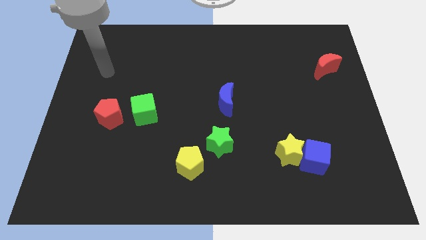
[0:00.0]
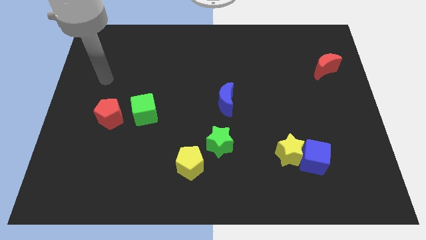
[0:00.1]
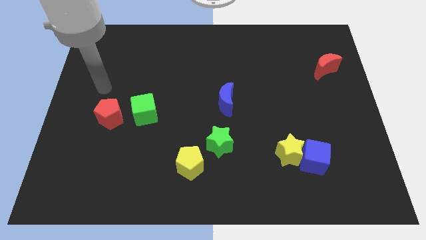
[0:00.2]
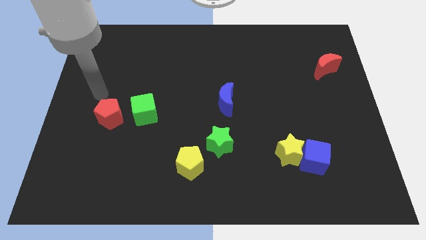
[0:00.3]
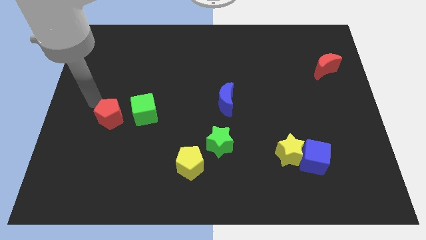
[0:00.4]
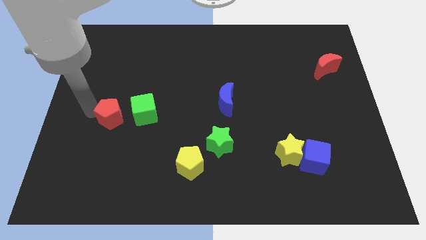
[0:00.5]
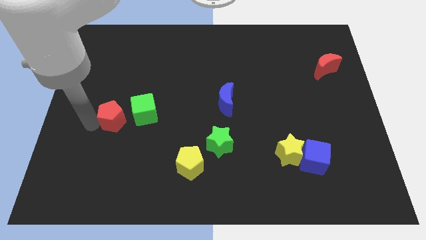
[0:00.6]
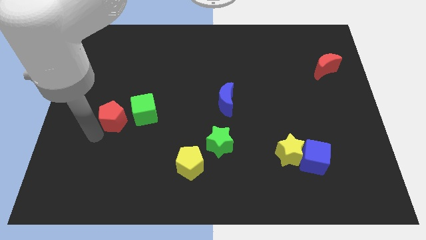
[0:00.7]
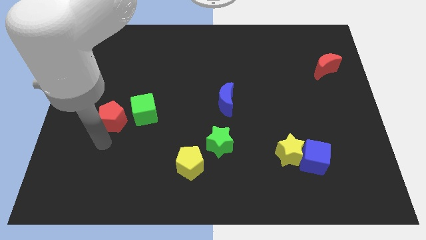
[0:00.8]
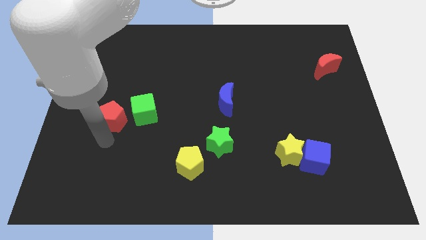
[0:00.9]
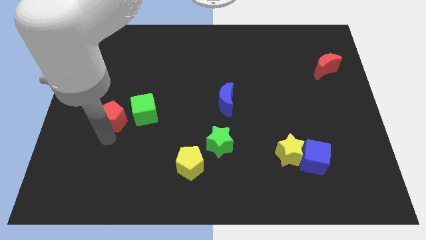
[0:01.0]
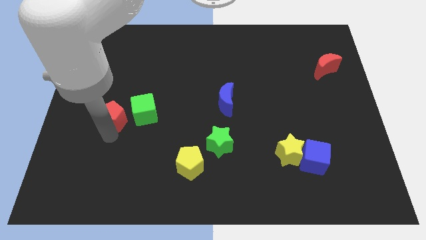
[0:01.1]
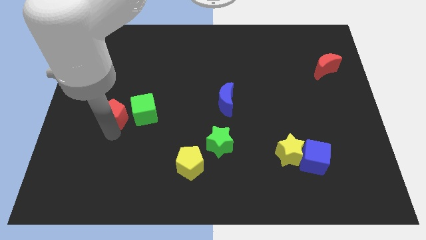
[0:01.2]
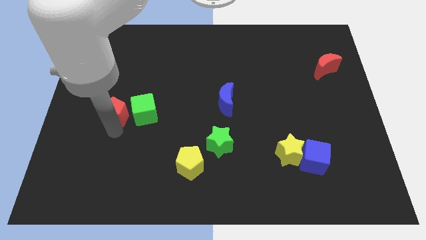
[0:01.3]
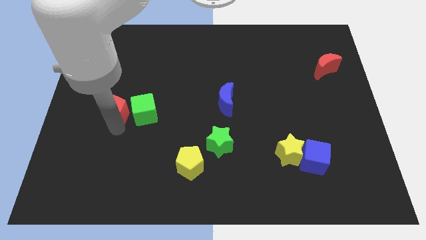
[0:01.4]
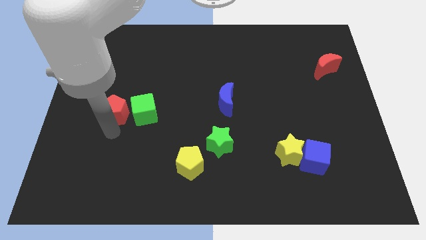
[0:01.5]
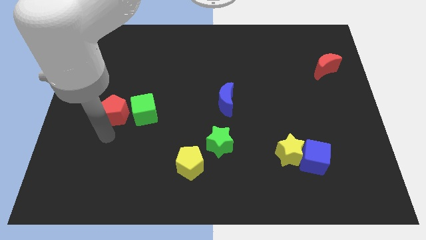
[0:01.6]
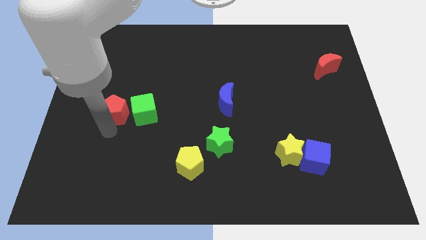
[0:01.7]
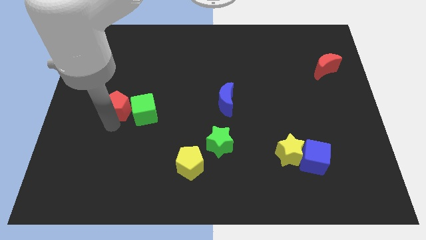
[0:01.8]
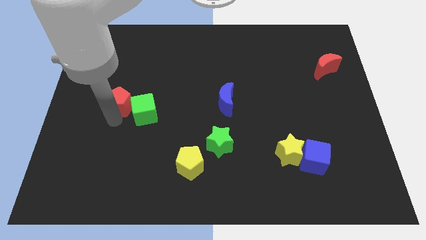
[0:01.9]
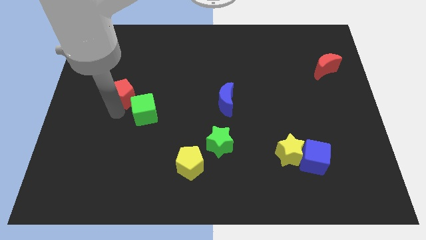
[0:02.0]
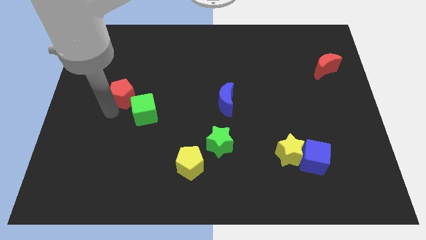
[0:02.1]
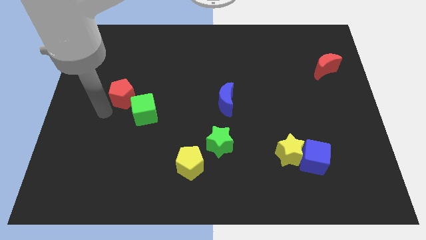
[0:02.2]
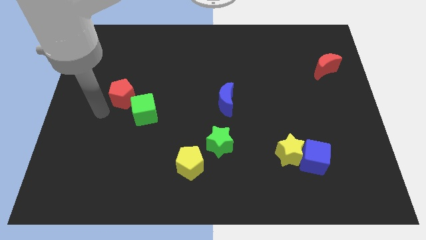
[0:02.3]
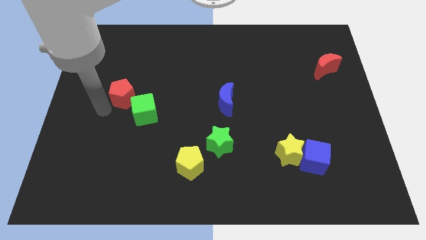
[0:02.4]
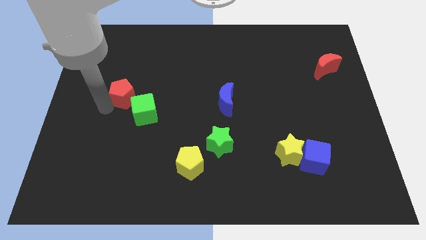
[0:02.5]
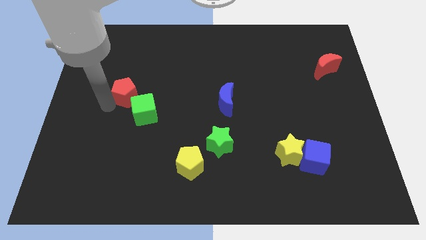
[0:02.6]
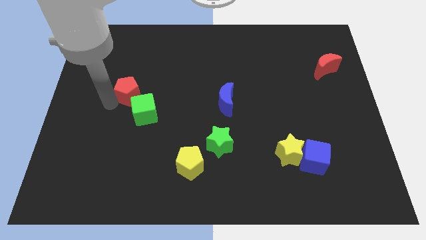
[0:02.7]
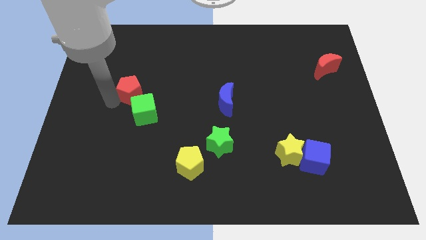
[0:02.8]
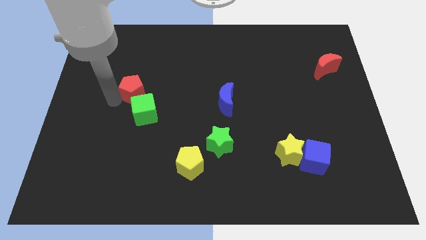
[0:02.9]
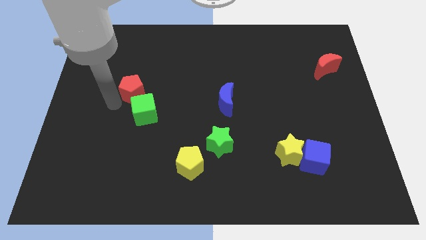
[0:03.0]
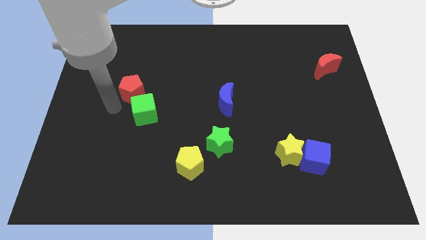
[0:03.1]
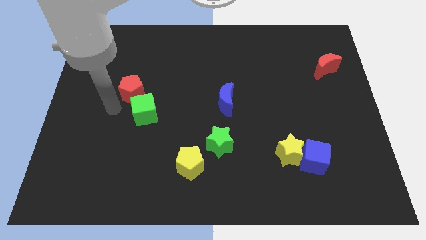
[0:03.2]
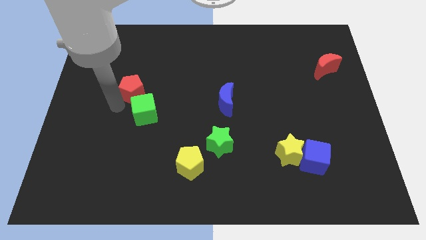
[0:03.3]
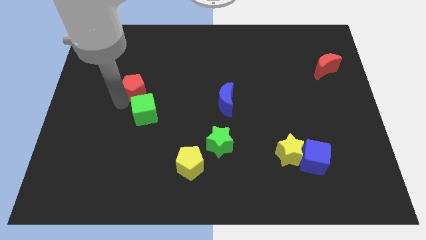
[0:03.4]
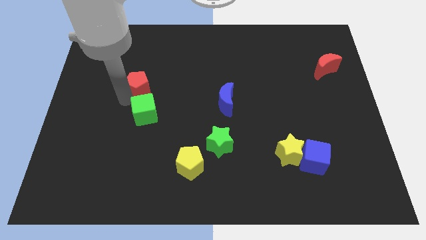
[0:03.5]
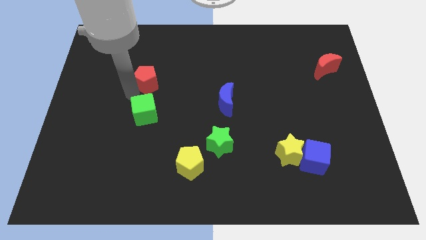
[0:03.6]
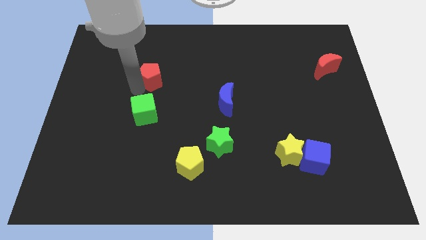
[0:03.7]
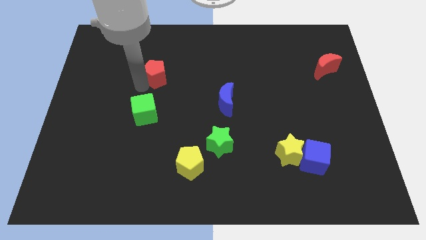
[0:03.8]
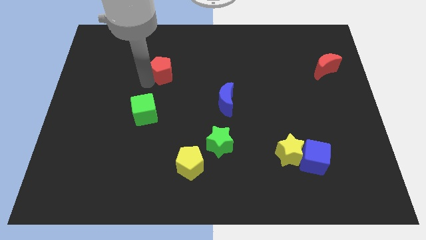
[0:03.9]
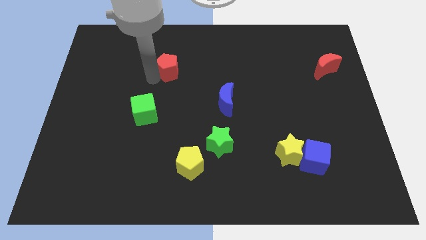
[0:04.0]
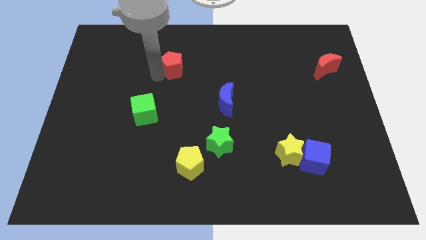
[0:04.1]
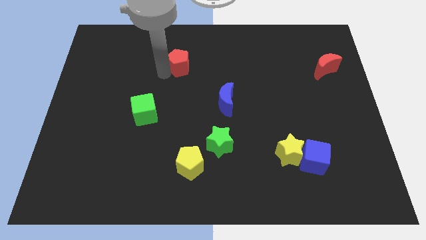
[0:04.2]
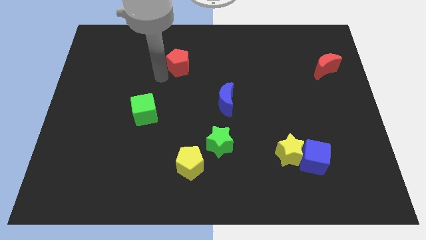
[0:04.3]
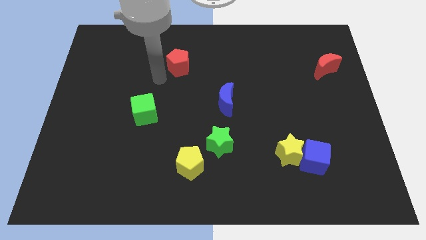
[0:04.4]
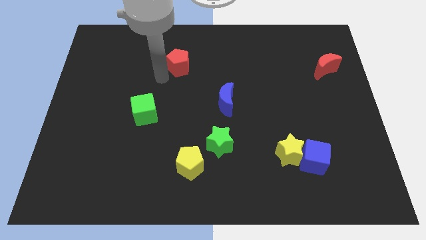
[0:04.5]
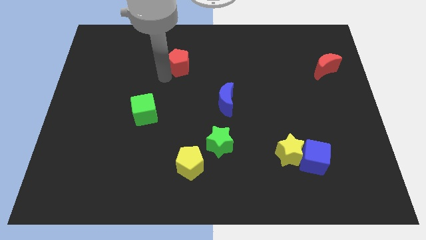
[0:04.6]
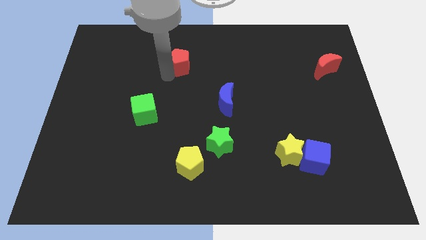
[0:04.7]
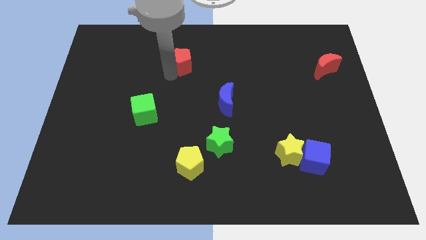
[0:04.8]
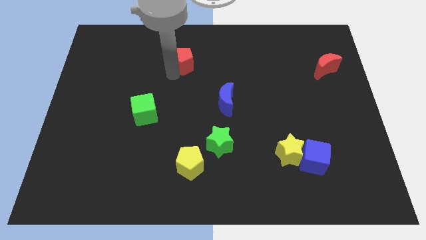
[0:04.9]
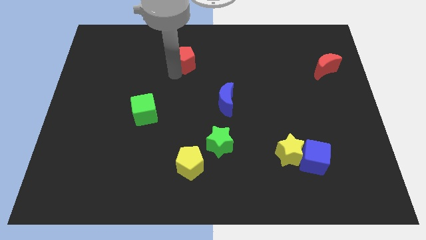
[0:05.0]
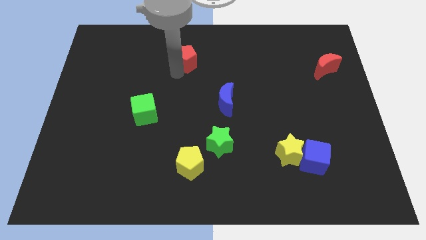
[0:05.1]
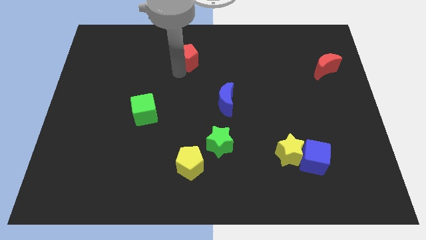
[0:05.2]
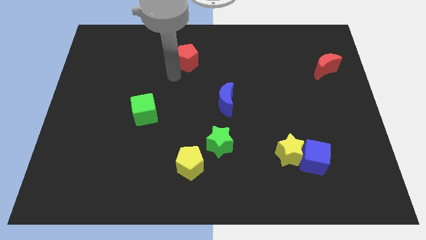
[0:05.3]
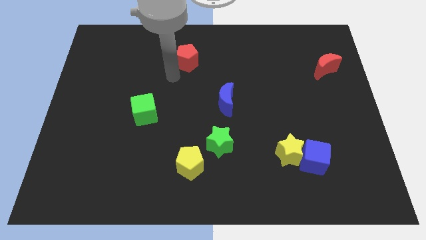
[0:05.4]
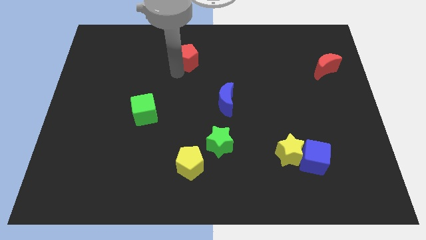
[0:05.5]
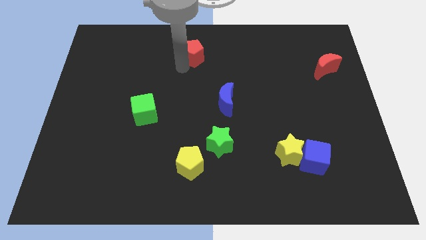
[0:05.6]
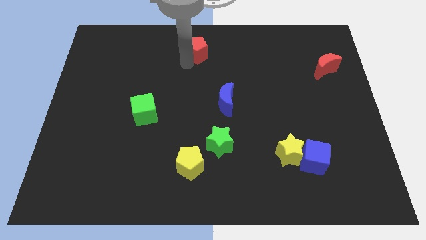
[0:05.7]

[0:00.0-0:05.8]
move the red pentagon to the top

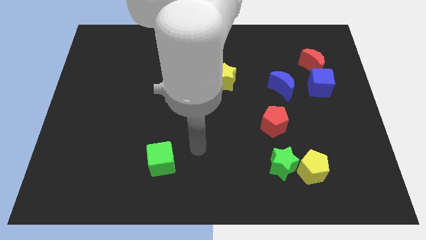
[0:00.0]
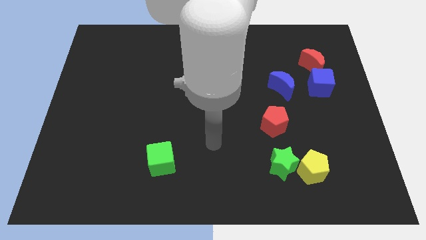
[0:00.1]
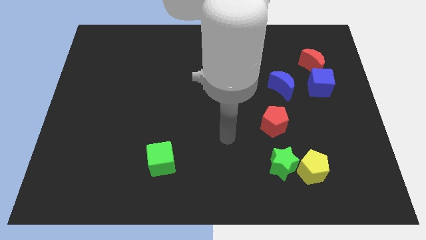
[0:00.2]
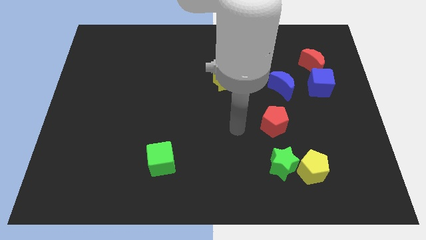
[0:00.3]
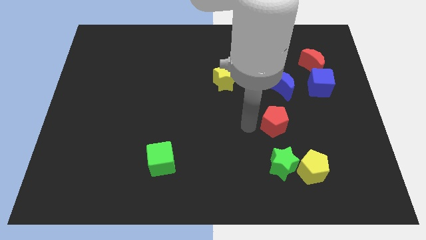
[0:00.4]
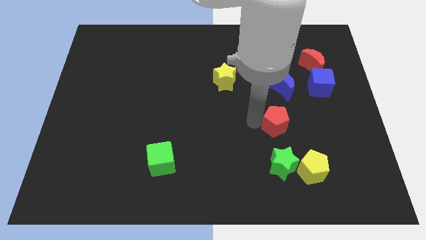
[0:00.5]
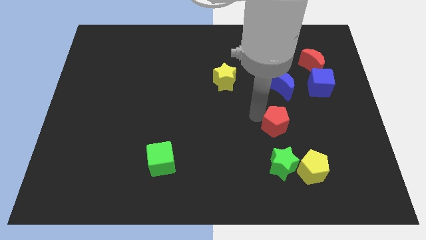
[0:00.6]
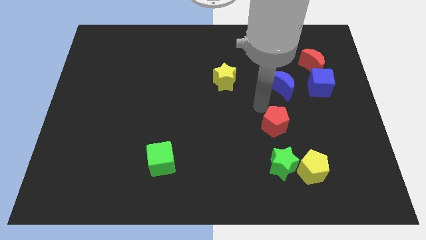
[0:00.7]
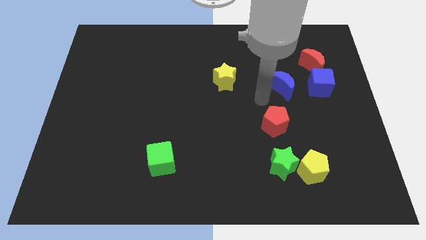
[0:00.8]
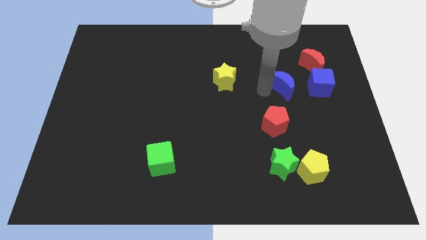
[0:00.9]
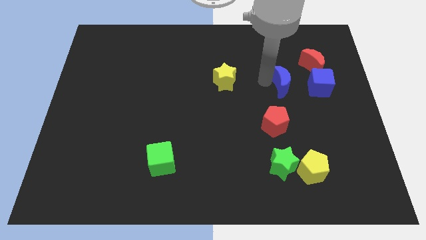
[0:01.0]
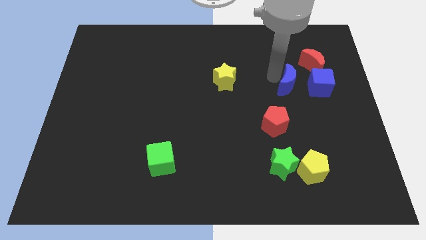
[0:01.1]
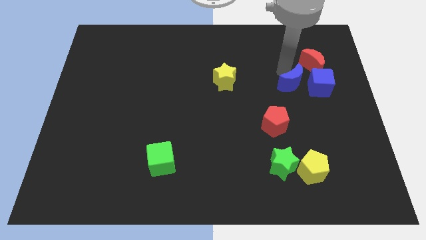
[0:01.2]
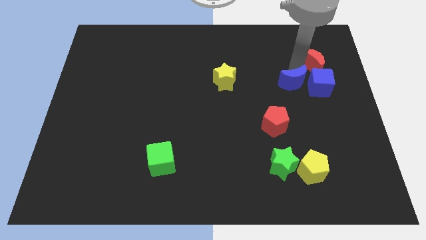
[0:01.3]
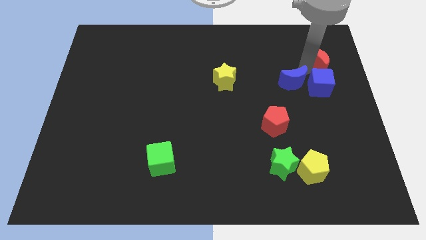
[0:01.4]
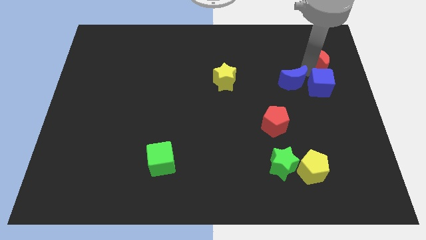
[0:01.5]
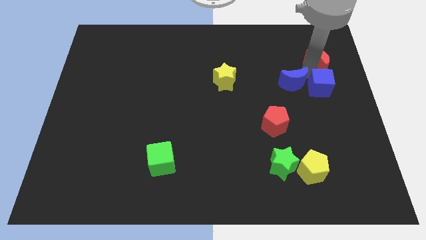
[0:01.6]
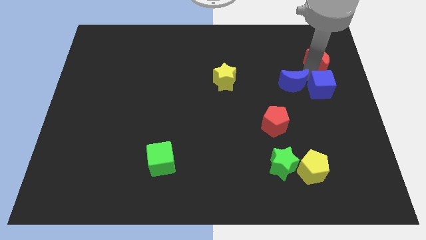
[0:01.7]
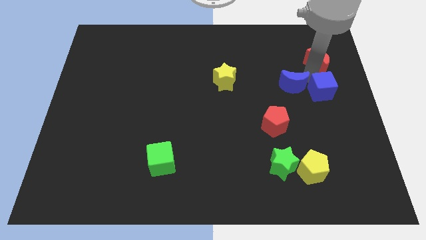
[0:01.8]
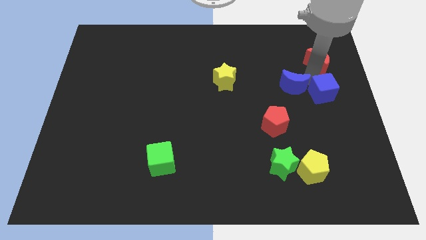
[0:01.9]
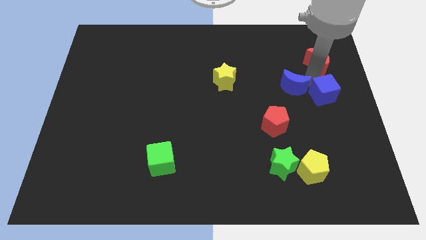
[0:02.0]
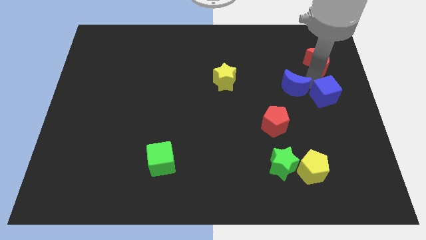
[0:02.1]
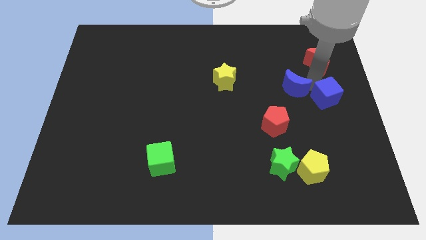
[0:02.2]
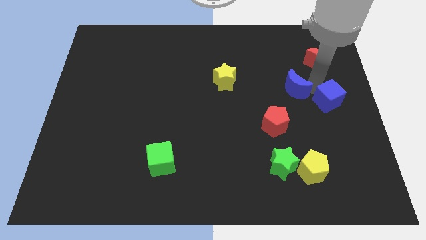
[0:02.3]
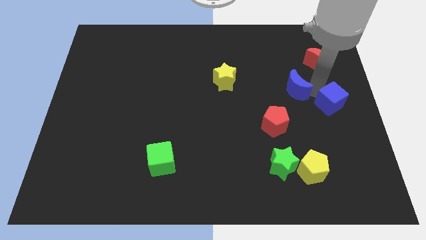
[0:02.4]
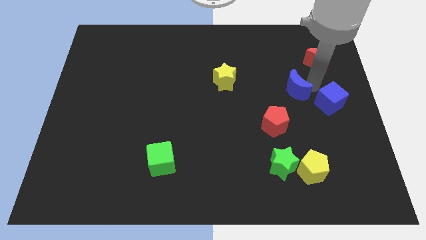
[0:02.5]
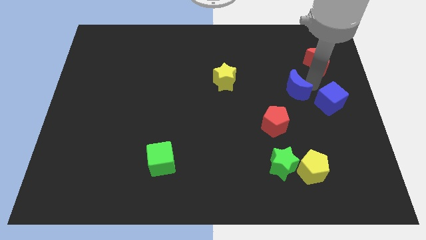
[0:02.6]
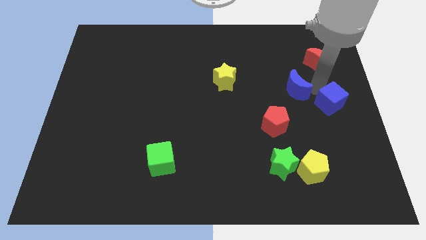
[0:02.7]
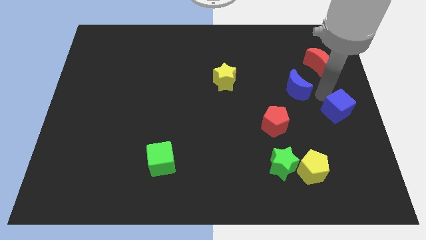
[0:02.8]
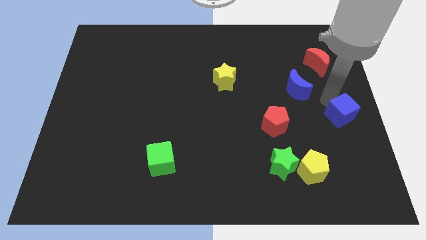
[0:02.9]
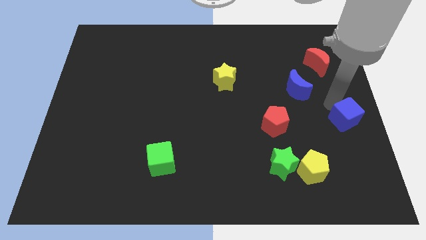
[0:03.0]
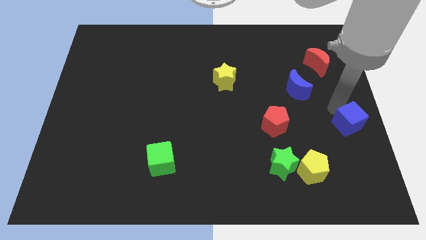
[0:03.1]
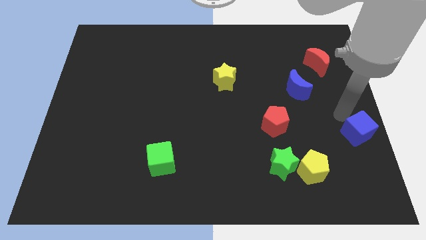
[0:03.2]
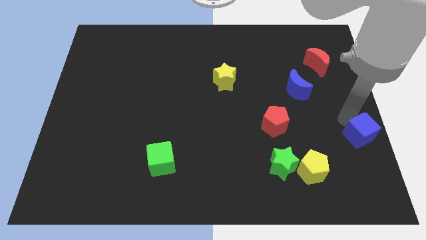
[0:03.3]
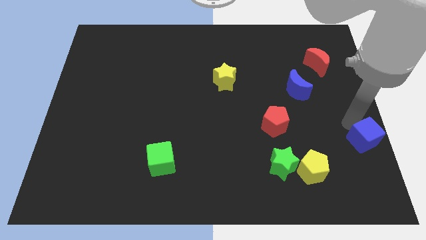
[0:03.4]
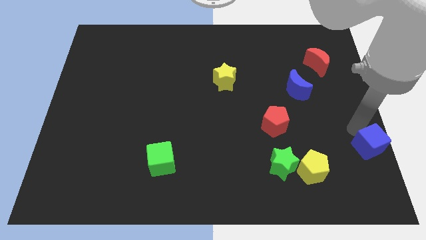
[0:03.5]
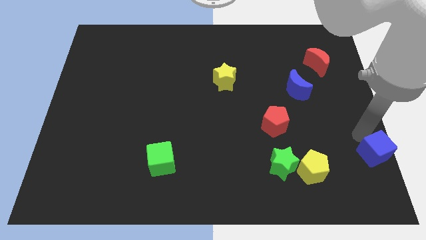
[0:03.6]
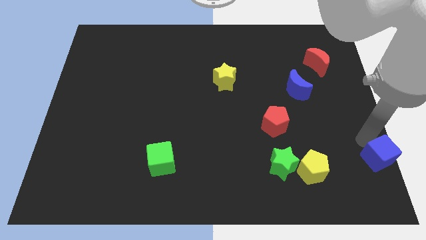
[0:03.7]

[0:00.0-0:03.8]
put the blue cube to the bottom right corner
